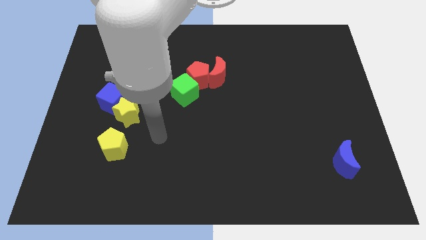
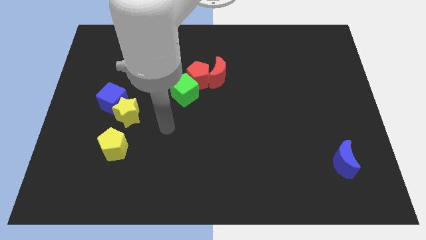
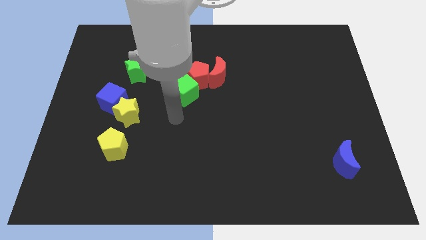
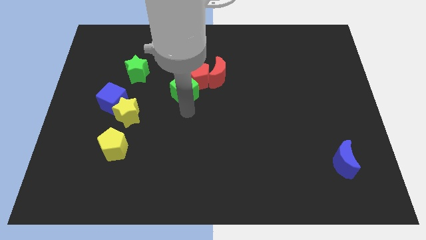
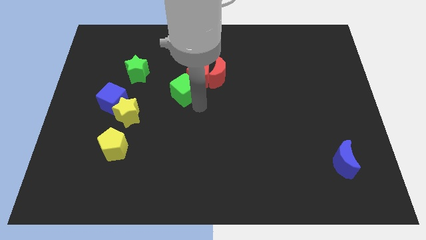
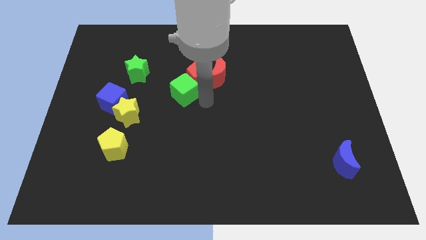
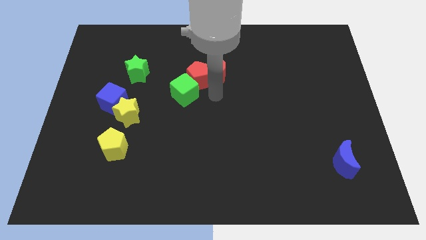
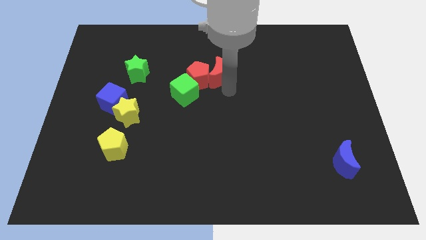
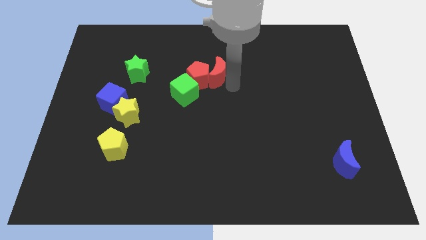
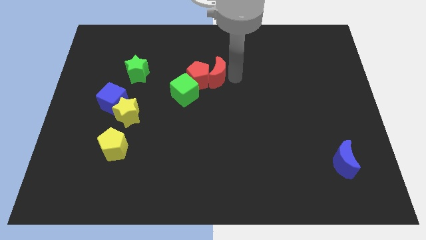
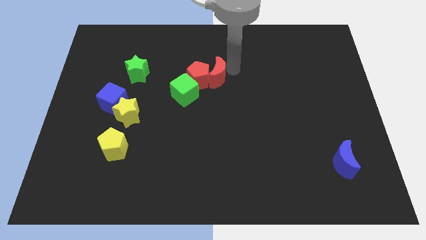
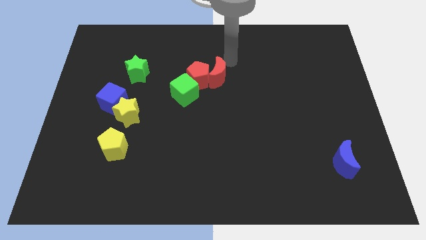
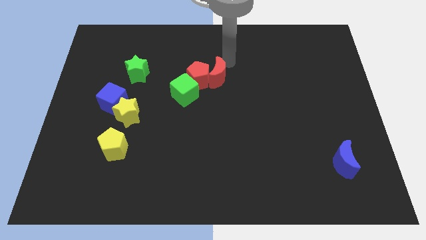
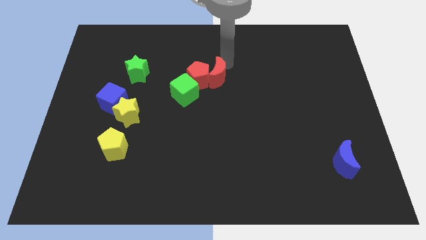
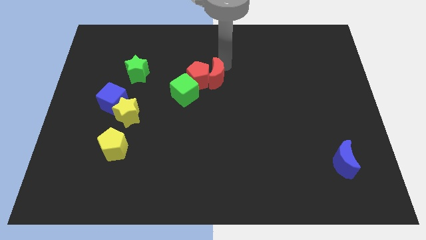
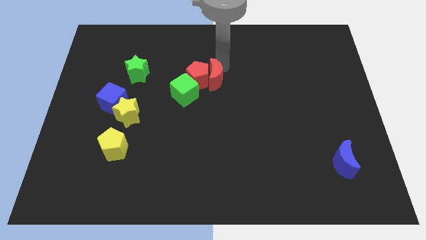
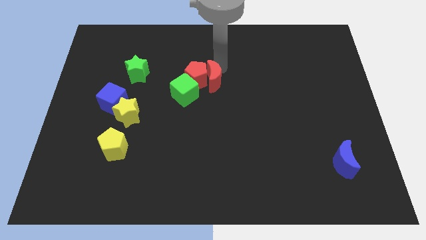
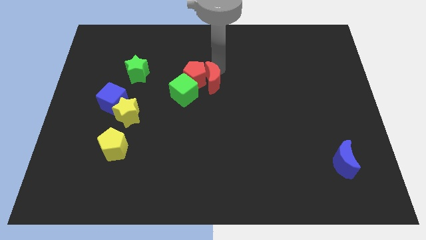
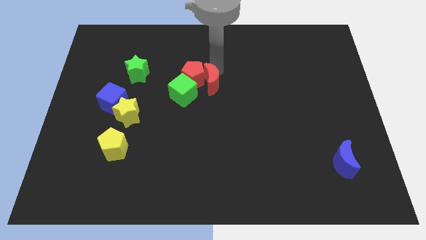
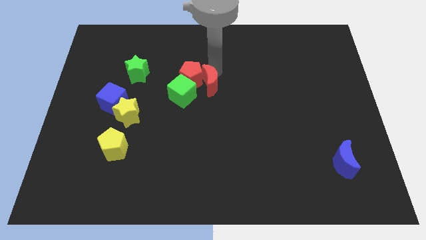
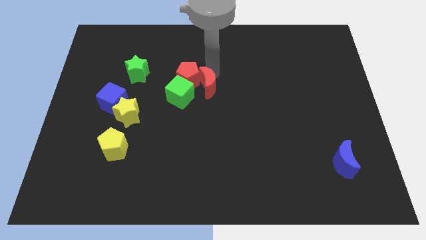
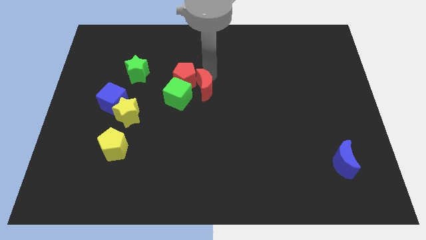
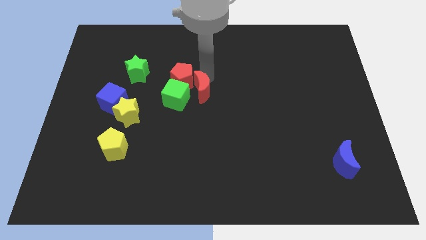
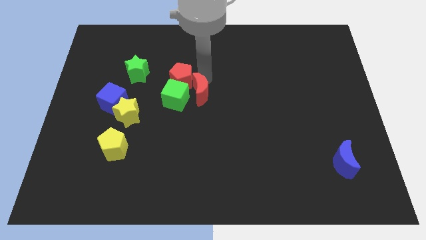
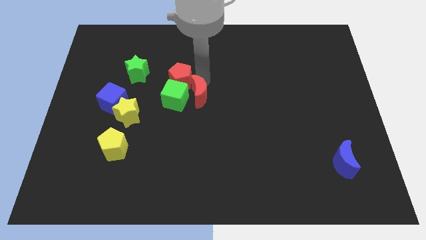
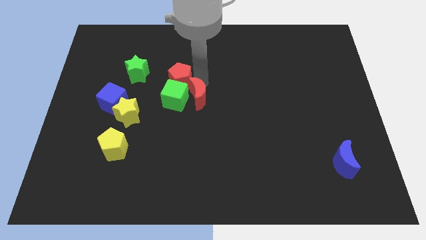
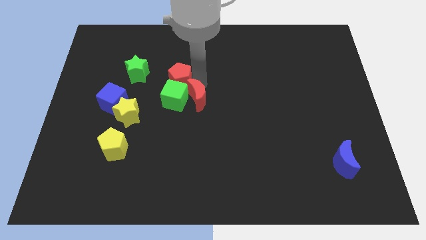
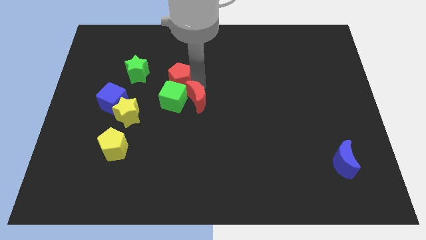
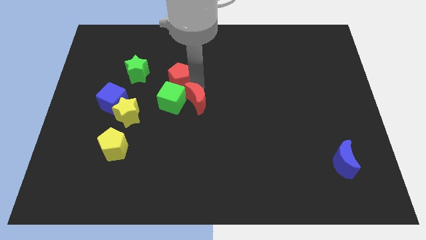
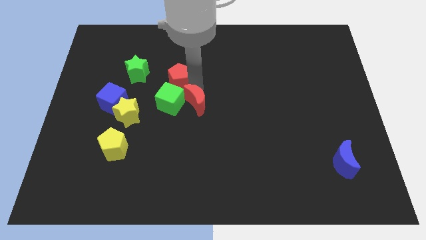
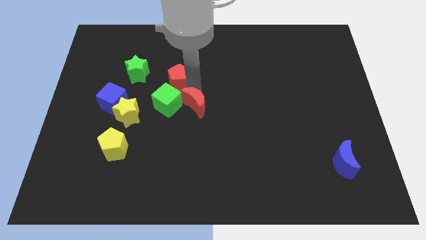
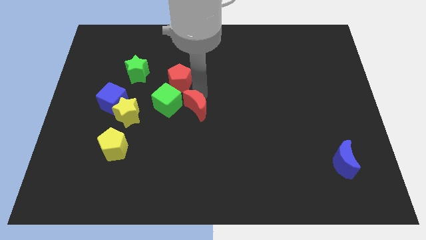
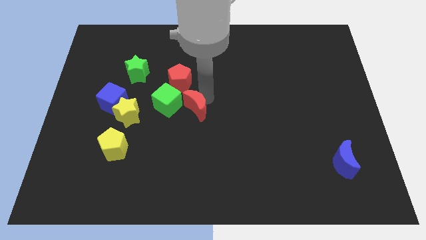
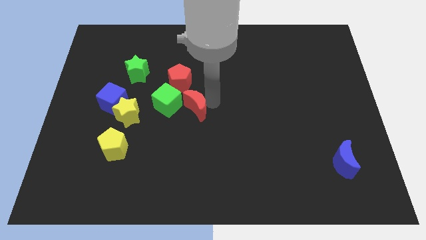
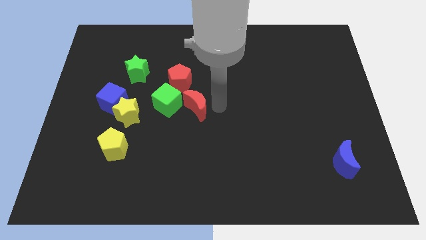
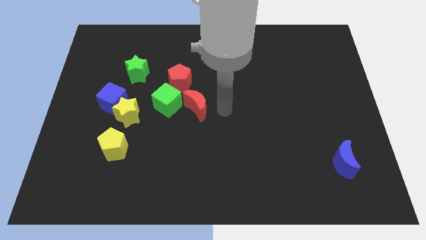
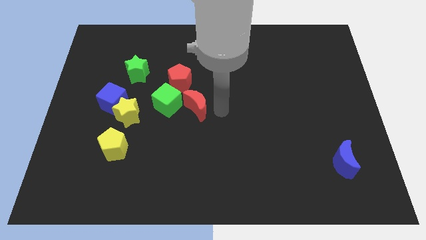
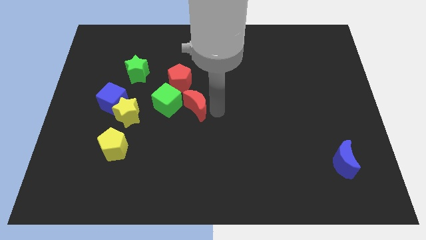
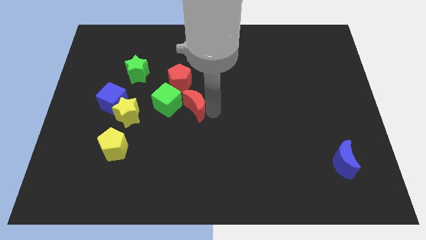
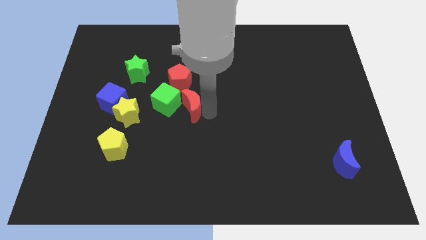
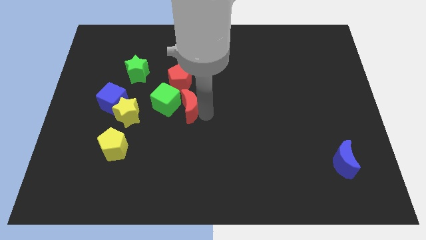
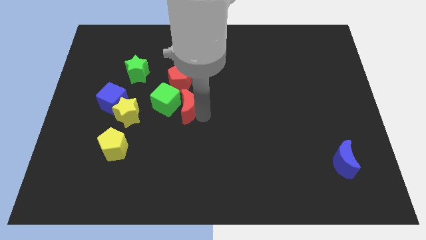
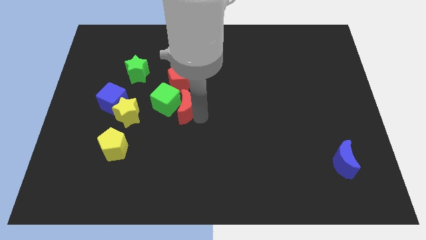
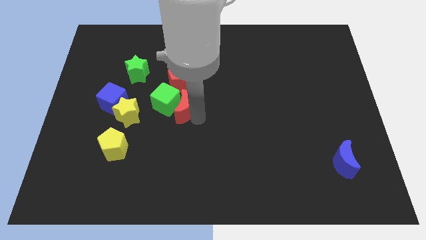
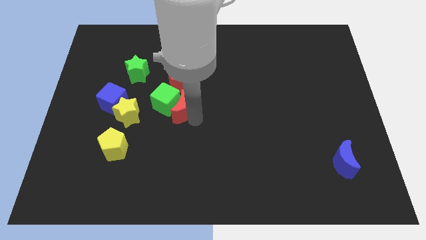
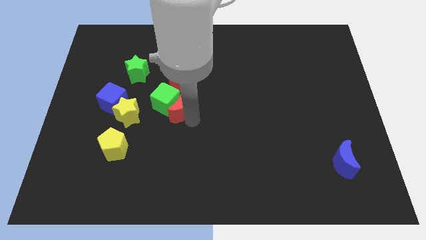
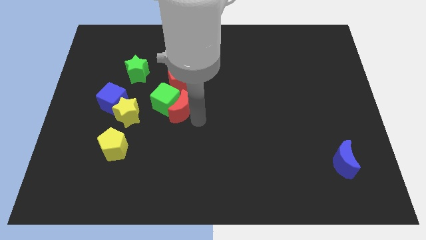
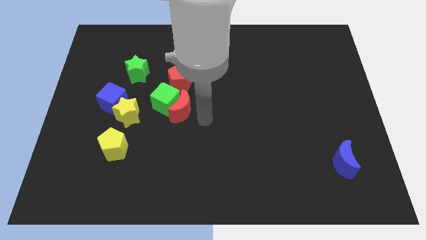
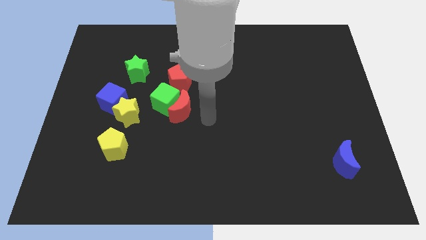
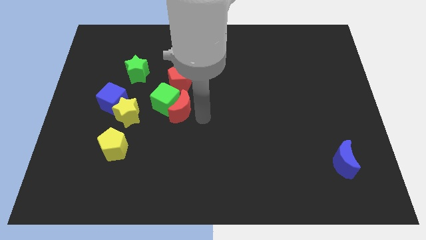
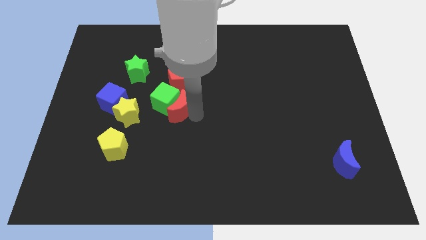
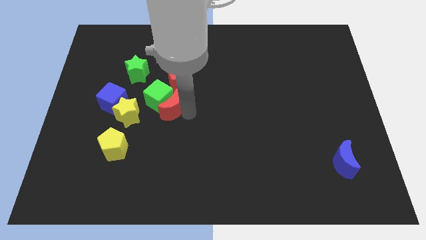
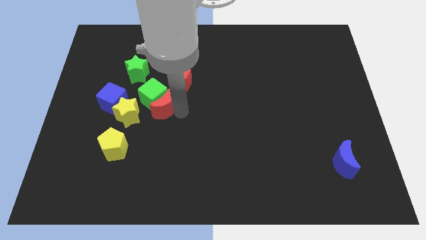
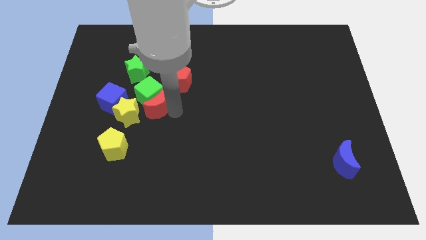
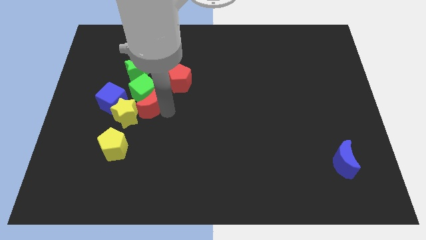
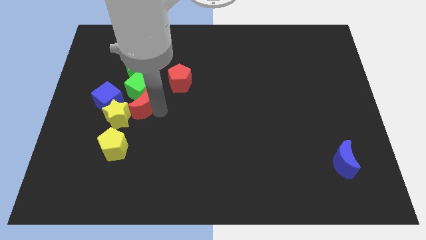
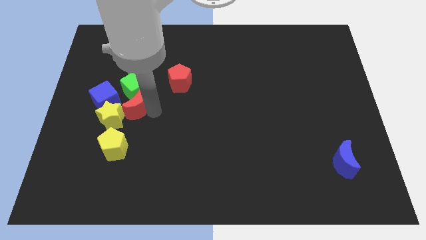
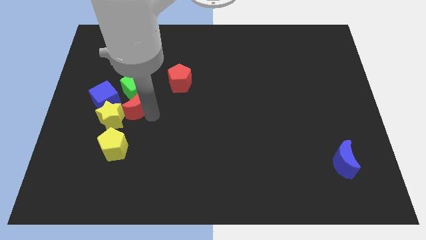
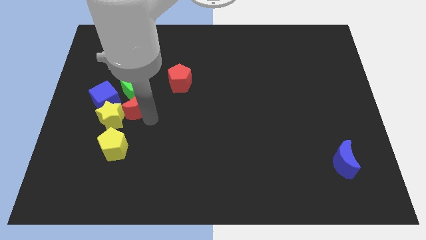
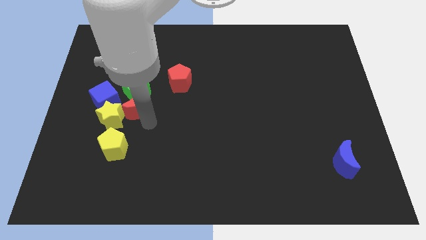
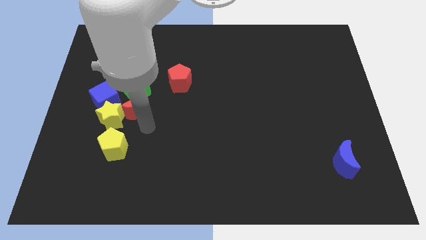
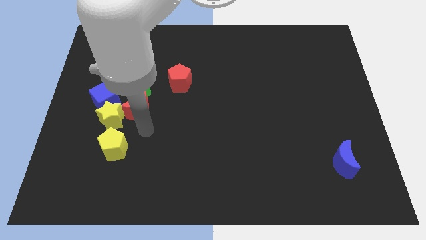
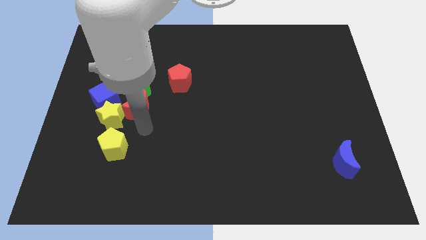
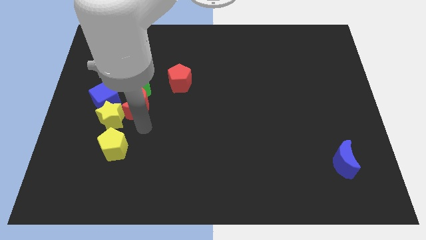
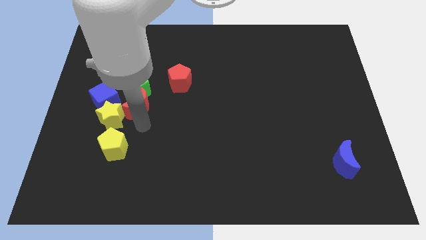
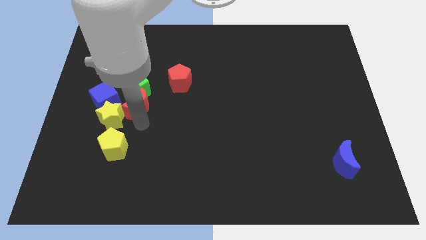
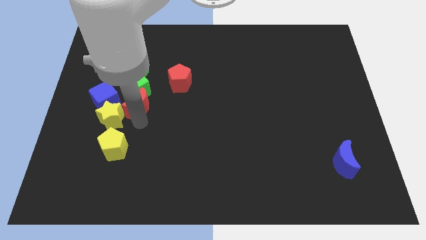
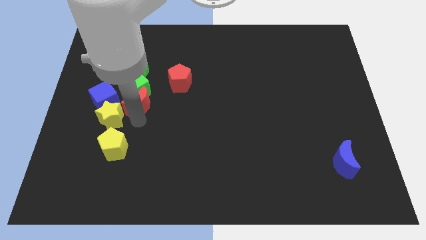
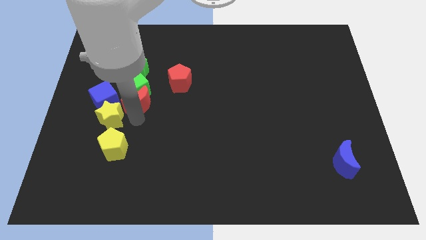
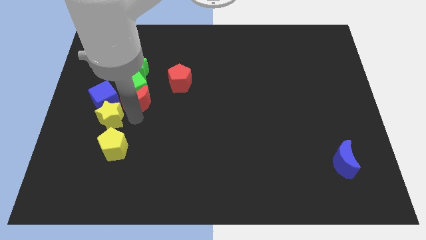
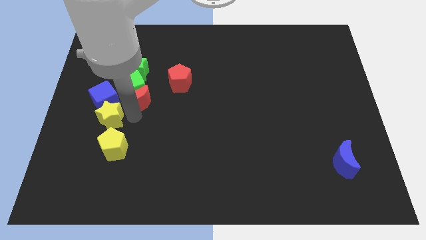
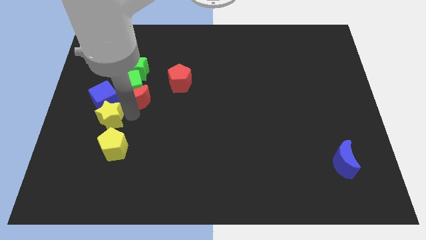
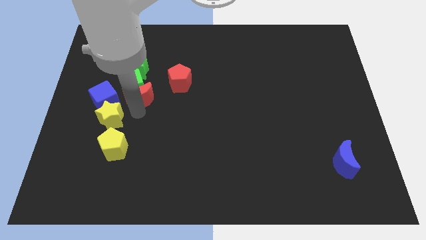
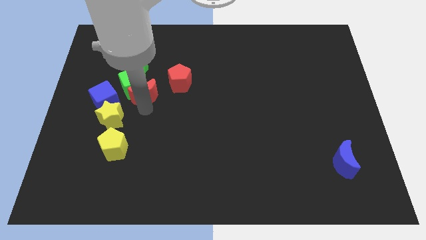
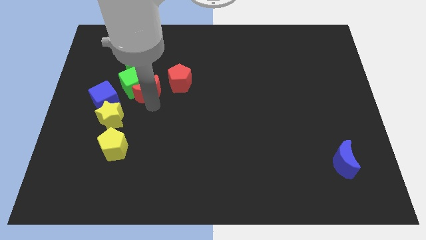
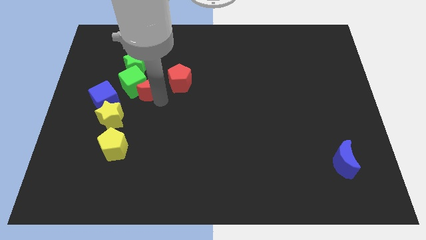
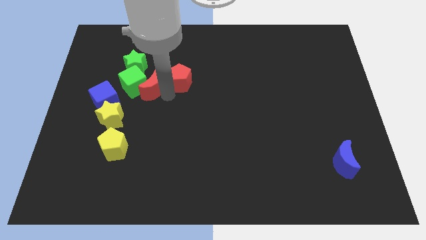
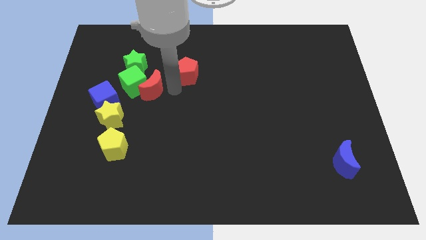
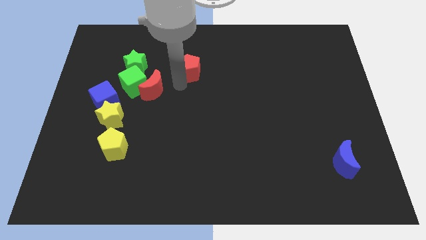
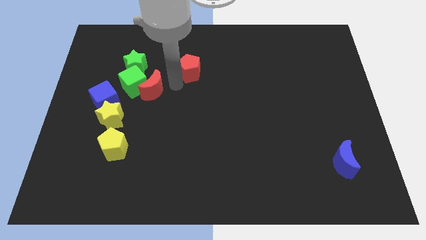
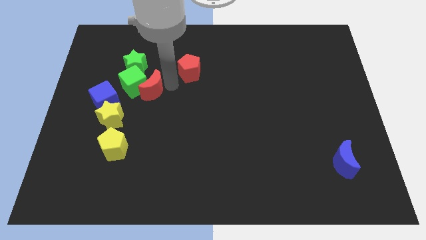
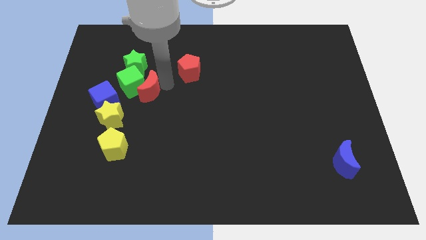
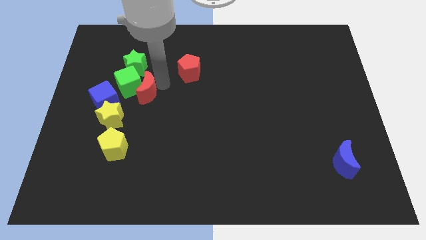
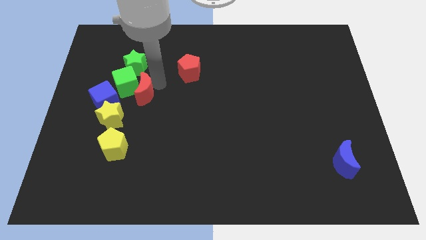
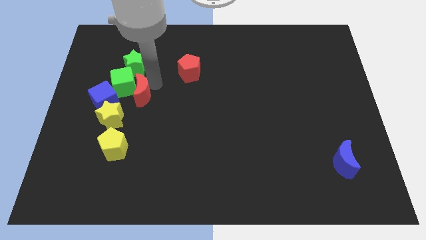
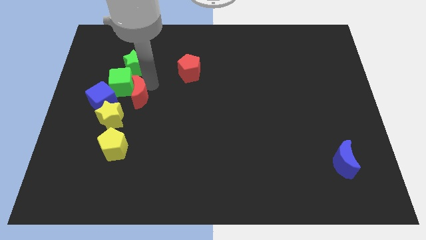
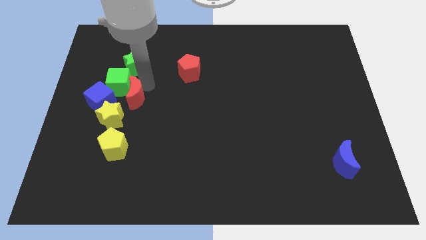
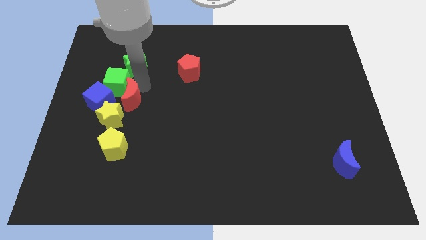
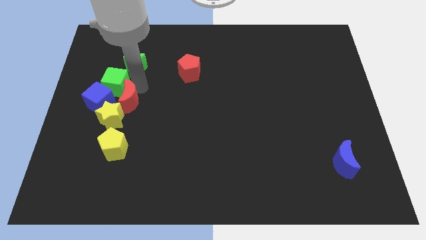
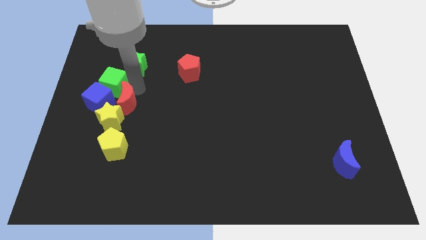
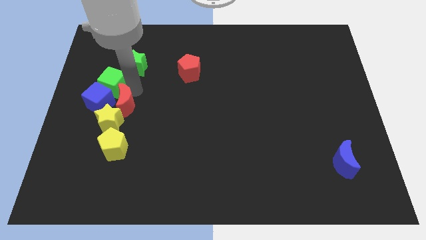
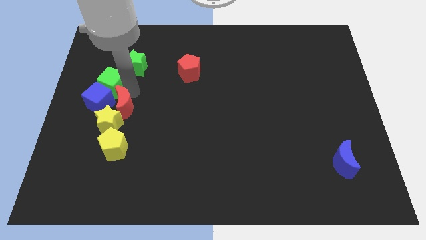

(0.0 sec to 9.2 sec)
move the red moon close to the blue cube
